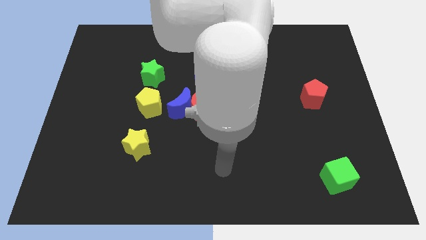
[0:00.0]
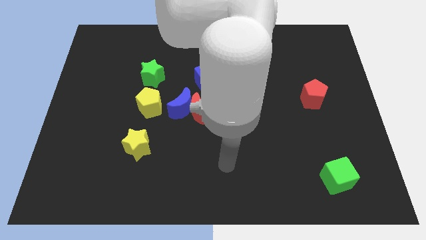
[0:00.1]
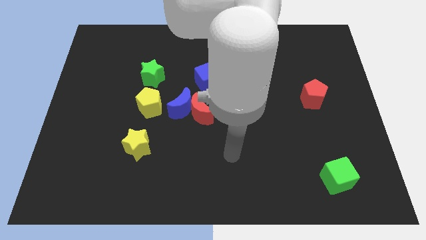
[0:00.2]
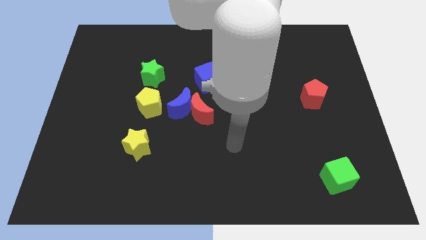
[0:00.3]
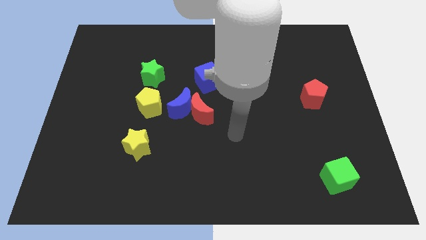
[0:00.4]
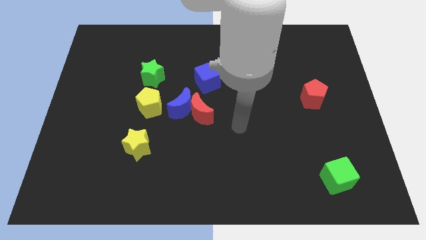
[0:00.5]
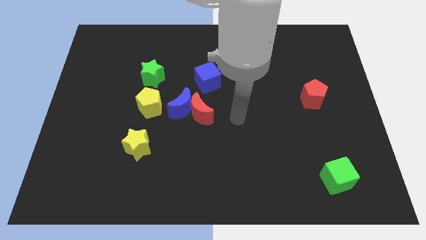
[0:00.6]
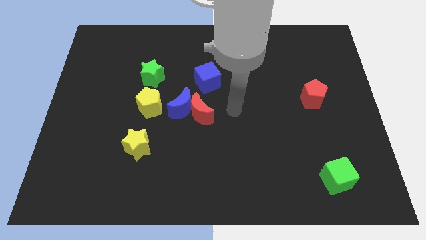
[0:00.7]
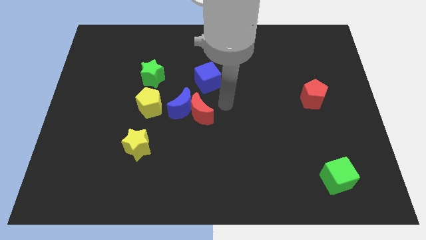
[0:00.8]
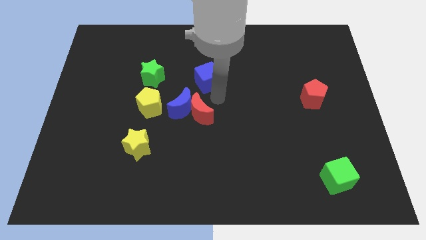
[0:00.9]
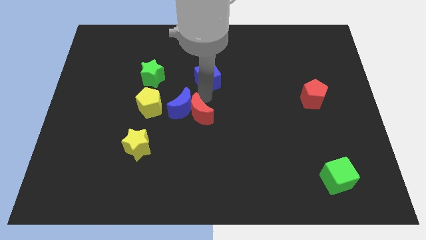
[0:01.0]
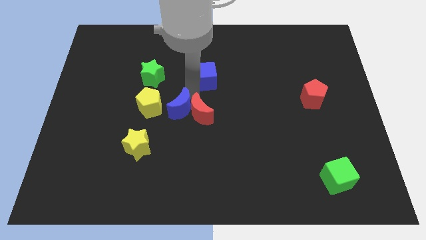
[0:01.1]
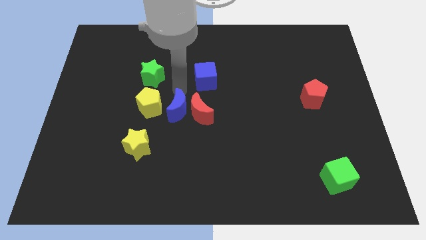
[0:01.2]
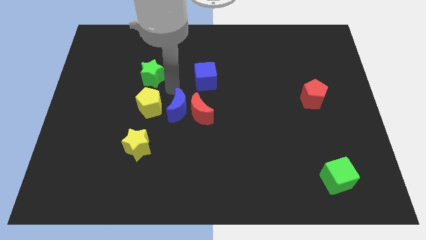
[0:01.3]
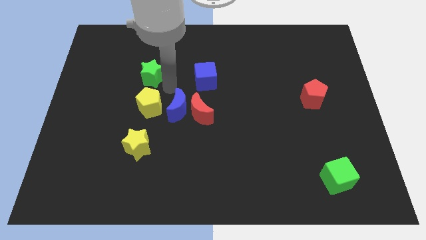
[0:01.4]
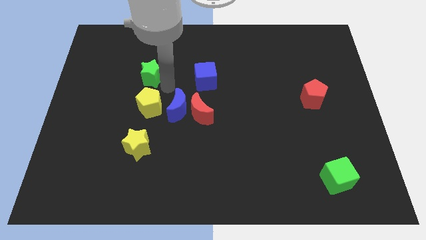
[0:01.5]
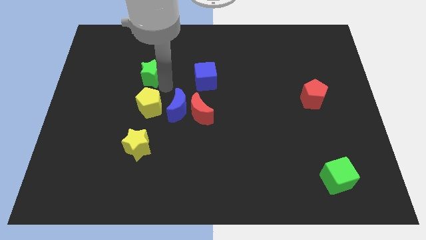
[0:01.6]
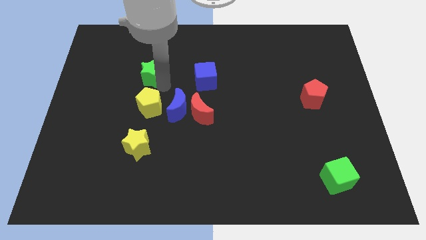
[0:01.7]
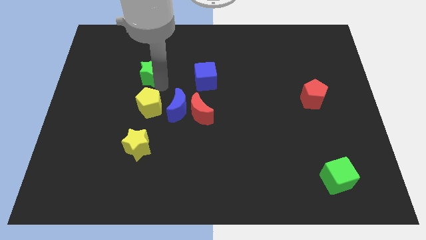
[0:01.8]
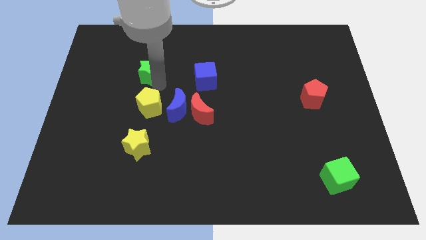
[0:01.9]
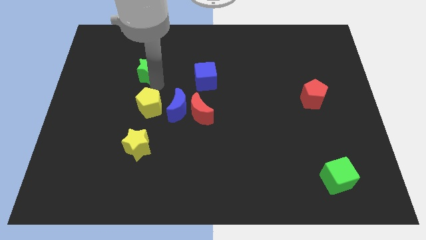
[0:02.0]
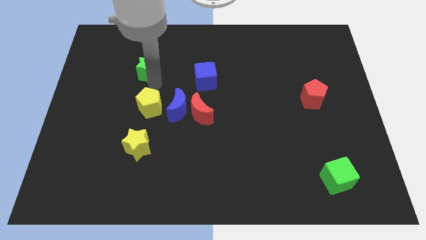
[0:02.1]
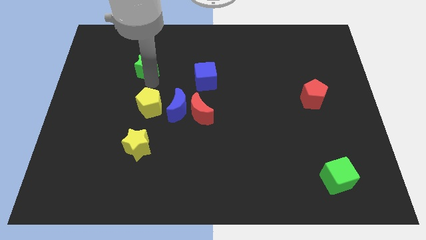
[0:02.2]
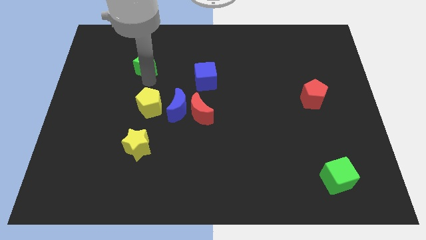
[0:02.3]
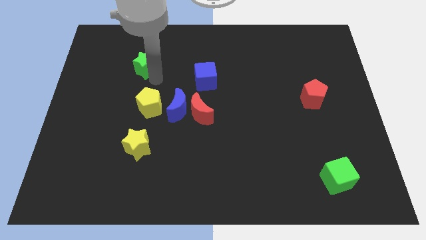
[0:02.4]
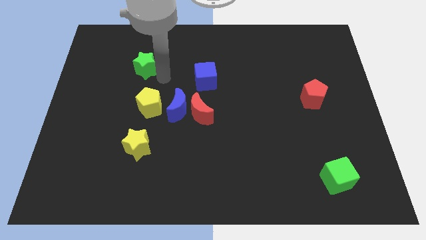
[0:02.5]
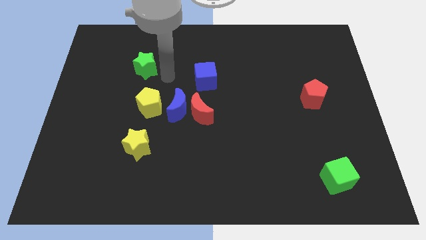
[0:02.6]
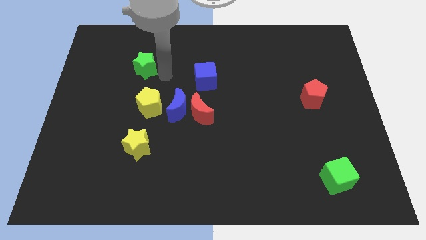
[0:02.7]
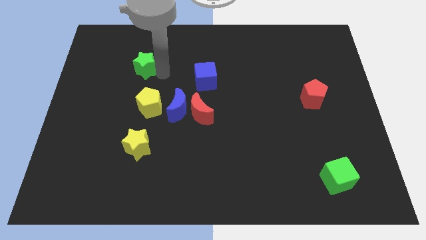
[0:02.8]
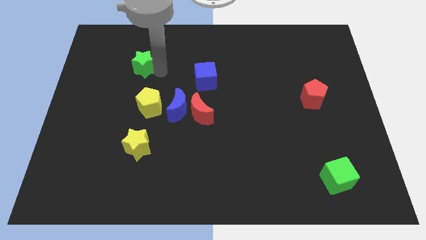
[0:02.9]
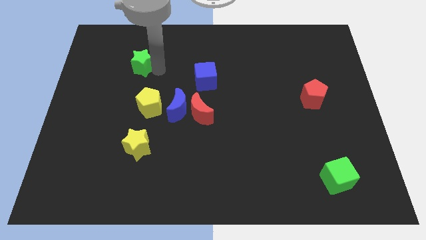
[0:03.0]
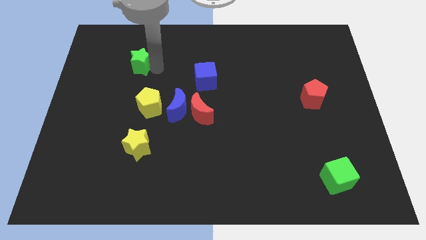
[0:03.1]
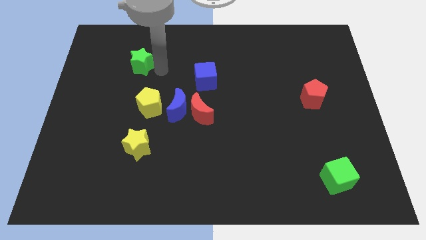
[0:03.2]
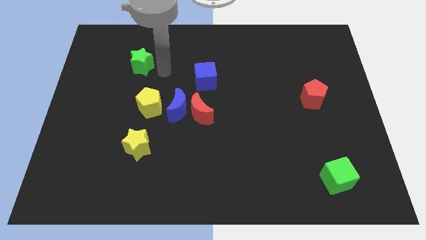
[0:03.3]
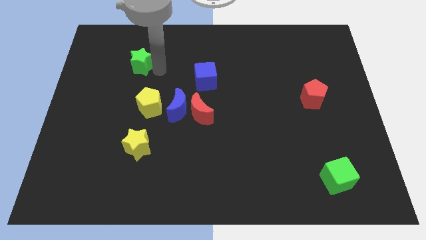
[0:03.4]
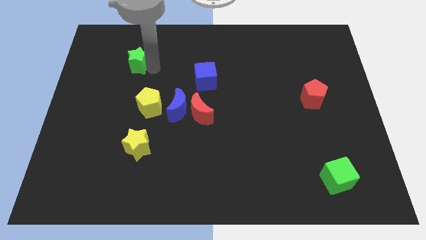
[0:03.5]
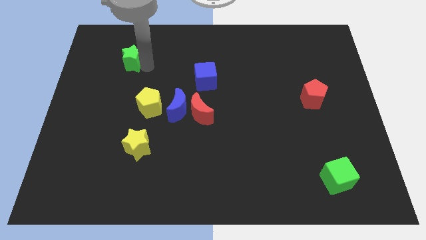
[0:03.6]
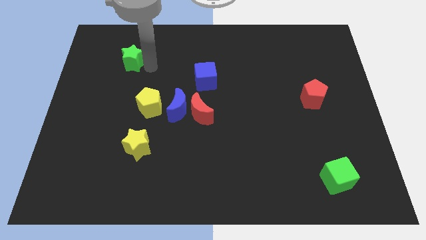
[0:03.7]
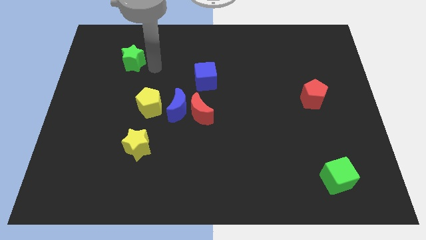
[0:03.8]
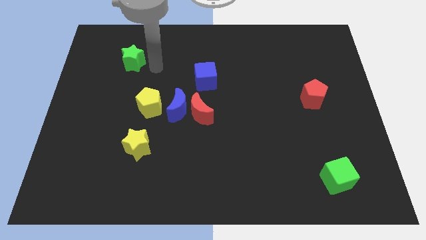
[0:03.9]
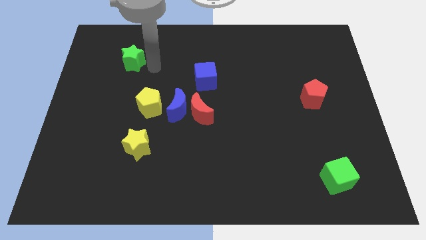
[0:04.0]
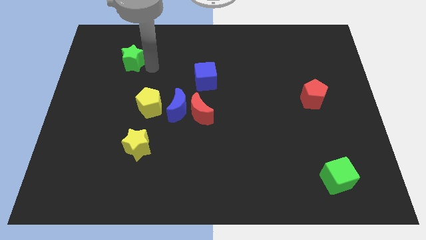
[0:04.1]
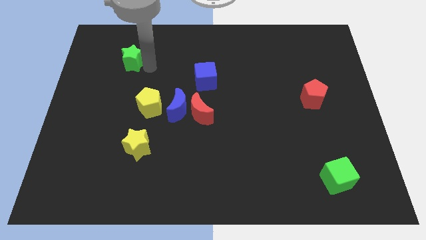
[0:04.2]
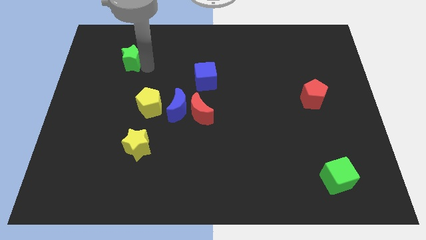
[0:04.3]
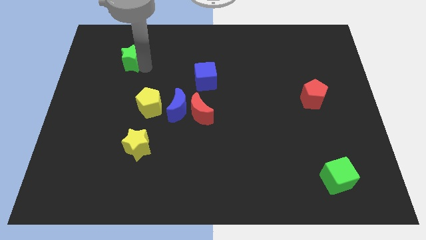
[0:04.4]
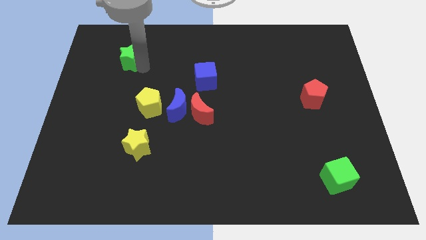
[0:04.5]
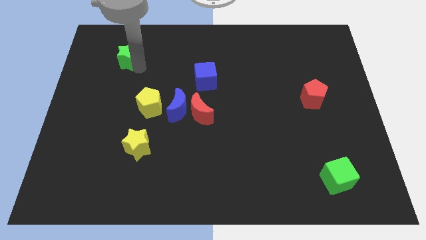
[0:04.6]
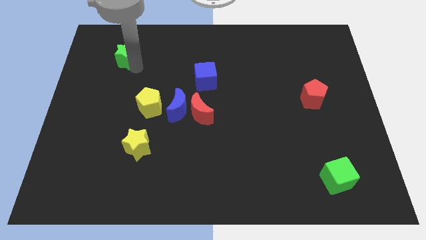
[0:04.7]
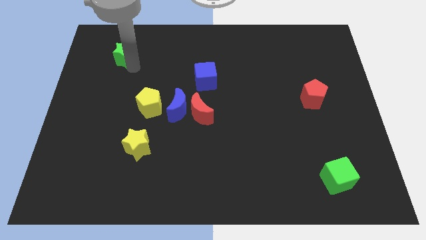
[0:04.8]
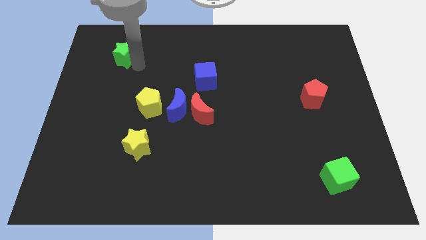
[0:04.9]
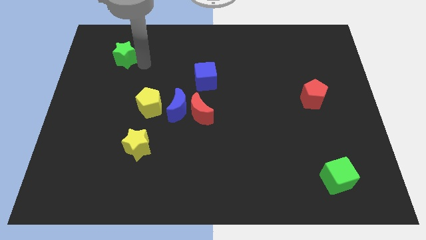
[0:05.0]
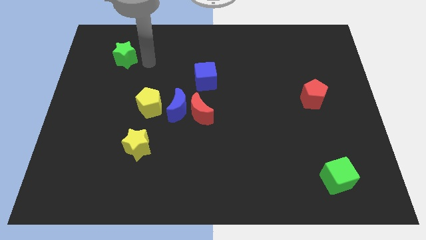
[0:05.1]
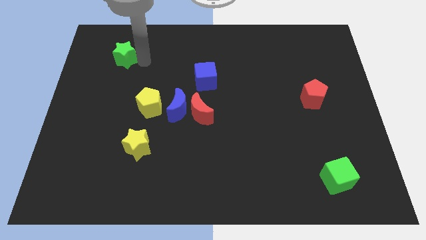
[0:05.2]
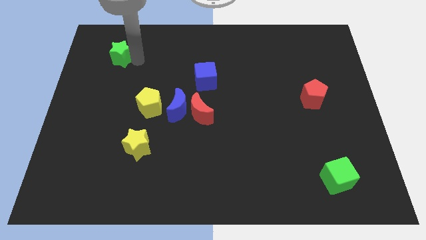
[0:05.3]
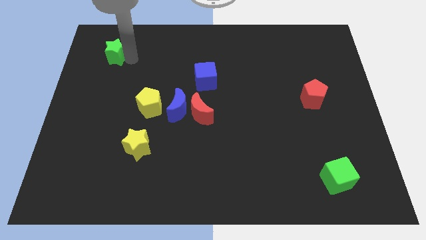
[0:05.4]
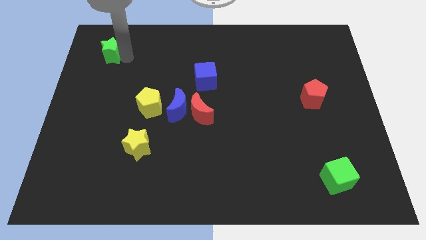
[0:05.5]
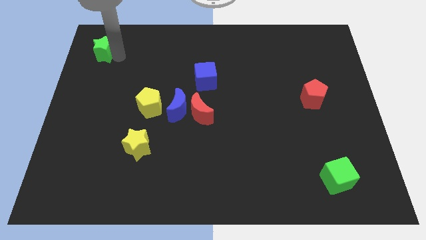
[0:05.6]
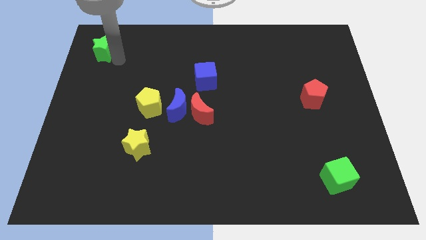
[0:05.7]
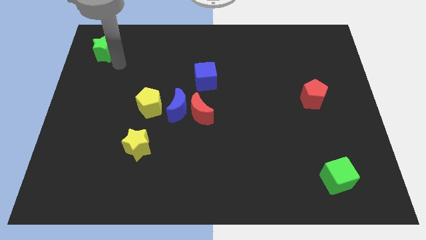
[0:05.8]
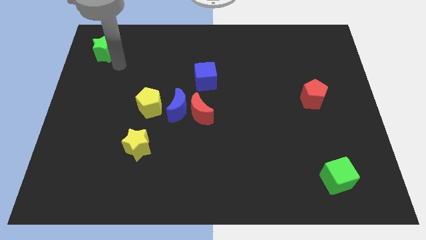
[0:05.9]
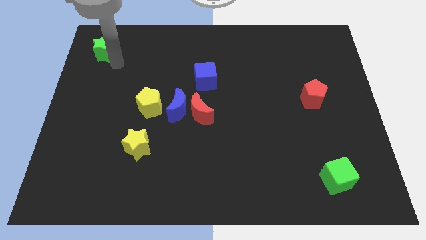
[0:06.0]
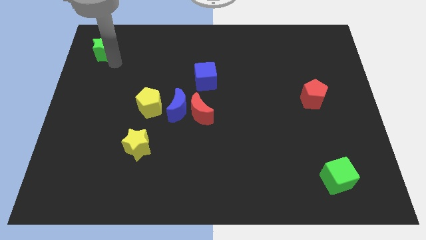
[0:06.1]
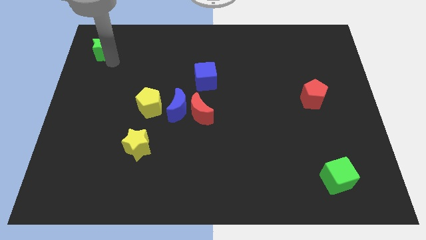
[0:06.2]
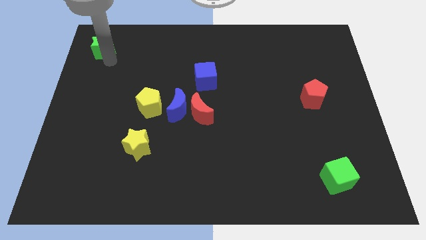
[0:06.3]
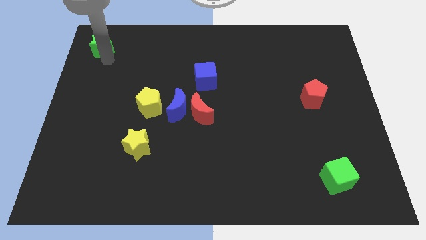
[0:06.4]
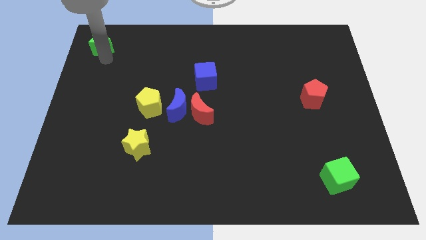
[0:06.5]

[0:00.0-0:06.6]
put the green star to the upper left corner

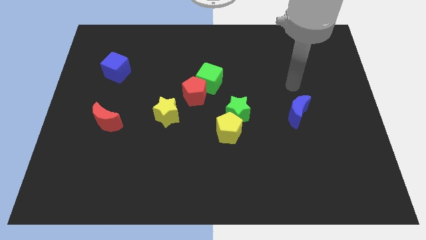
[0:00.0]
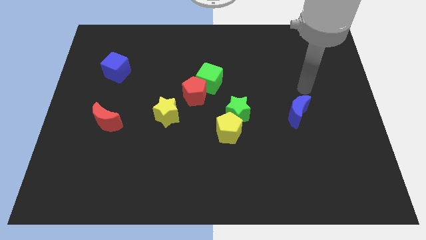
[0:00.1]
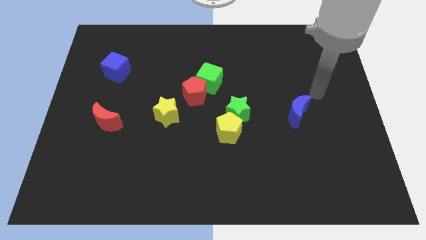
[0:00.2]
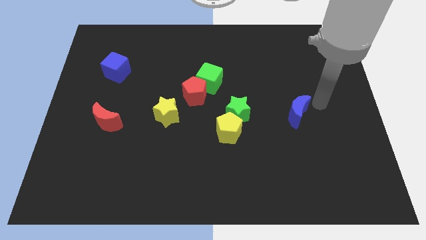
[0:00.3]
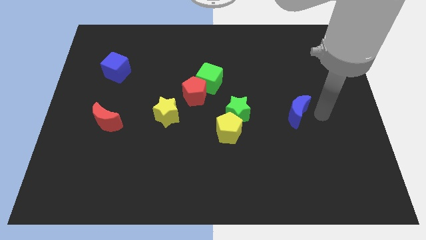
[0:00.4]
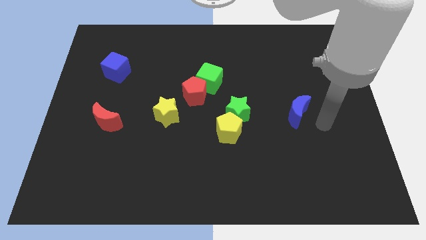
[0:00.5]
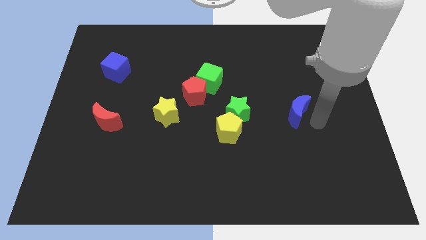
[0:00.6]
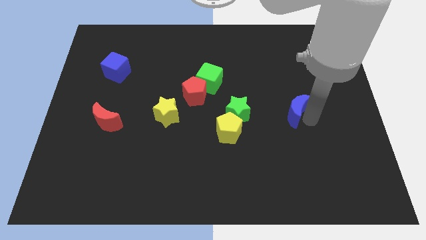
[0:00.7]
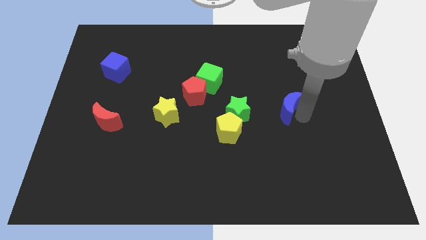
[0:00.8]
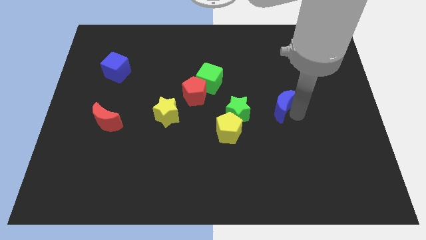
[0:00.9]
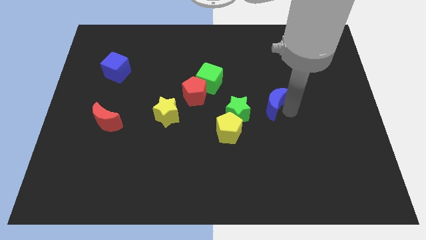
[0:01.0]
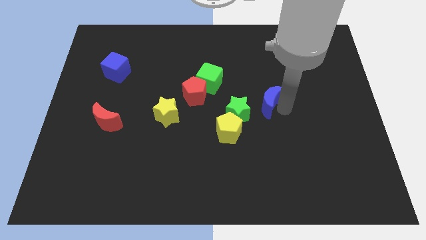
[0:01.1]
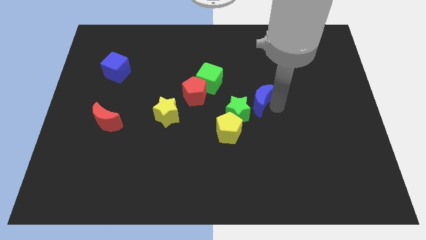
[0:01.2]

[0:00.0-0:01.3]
put the blue moon to the middle
